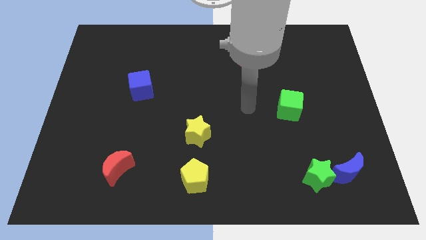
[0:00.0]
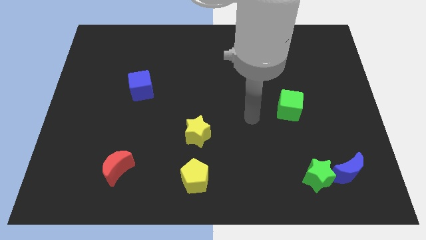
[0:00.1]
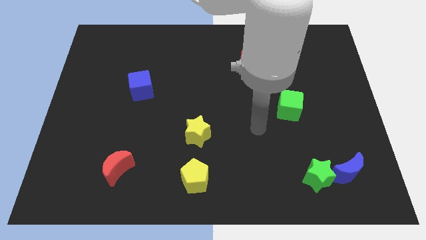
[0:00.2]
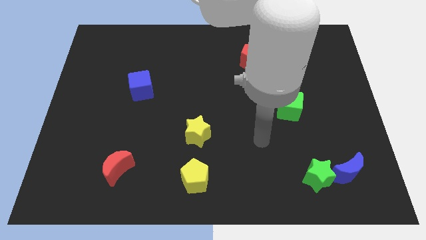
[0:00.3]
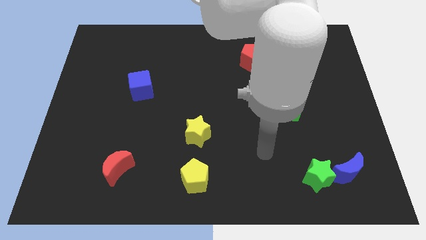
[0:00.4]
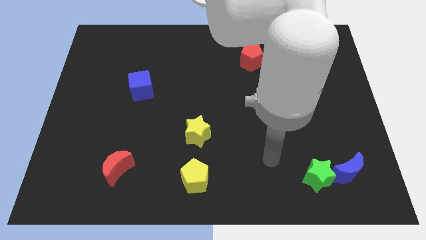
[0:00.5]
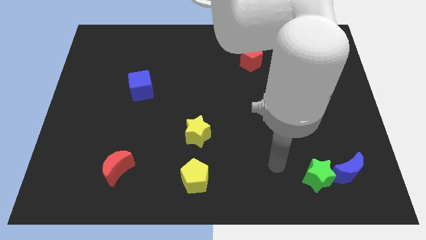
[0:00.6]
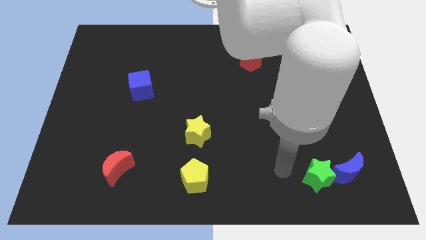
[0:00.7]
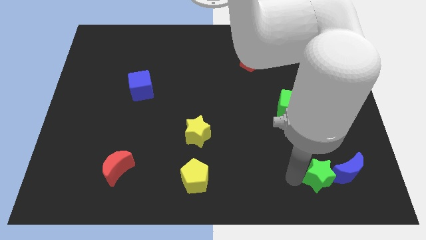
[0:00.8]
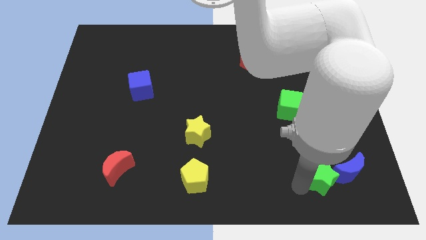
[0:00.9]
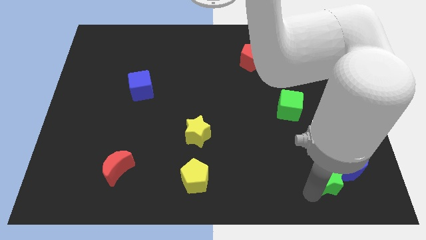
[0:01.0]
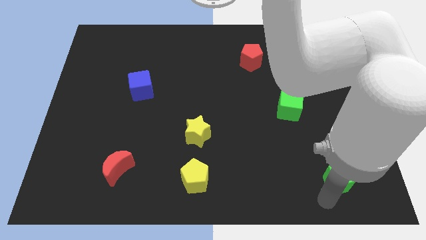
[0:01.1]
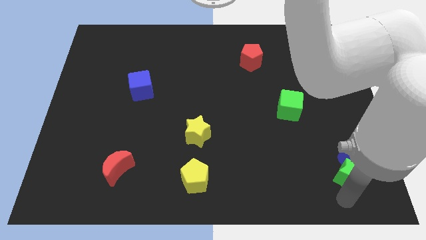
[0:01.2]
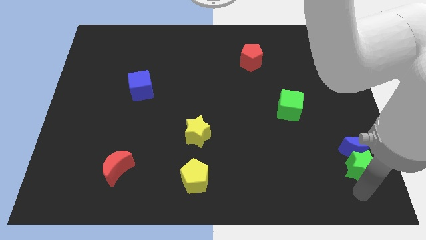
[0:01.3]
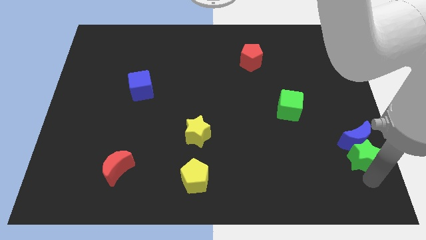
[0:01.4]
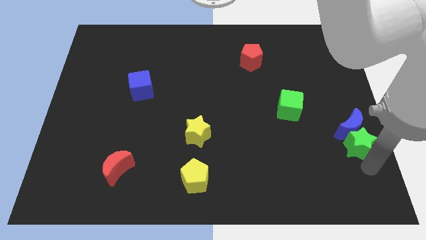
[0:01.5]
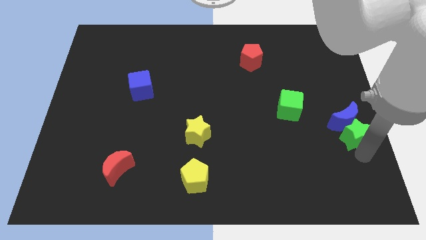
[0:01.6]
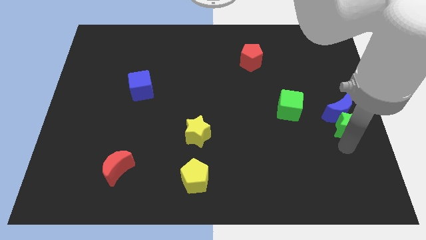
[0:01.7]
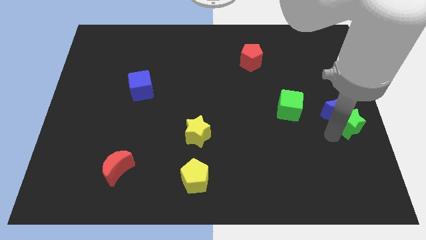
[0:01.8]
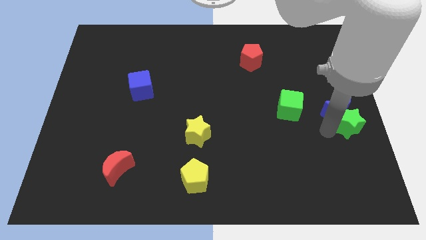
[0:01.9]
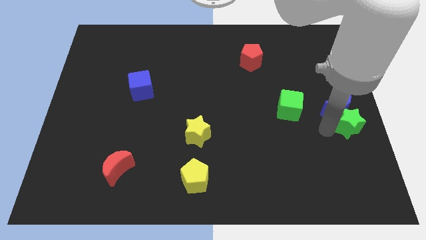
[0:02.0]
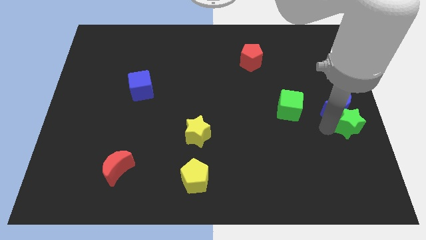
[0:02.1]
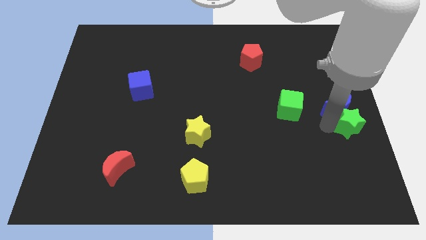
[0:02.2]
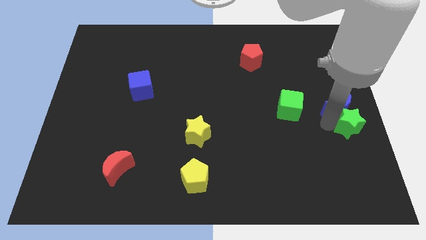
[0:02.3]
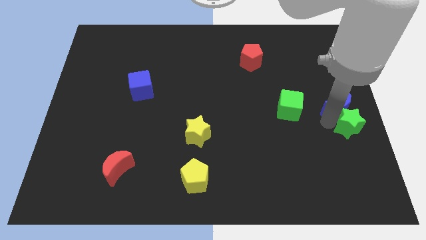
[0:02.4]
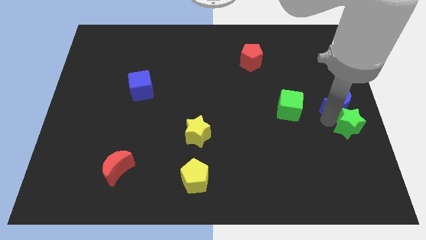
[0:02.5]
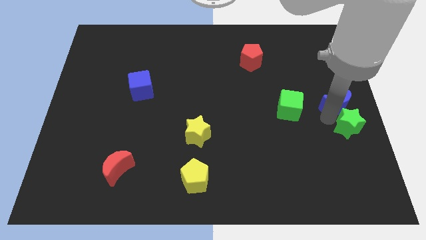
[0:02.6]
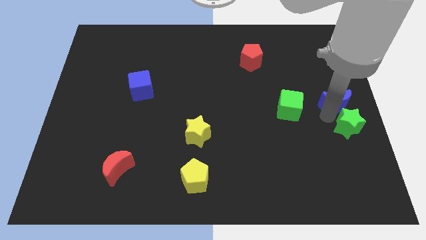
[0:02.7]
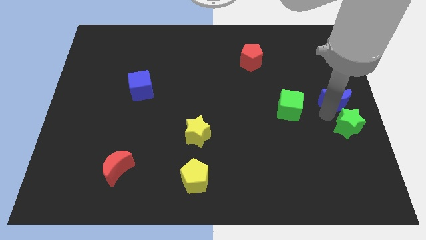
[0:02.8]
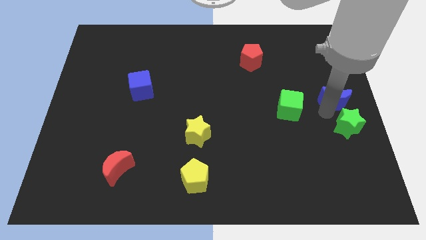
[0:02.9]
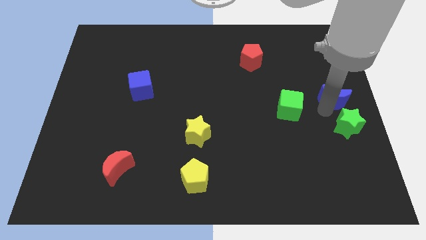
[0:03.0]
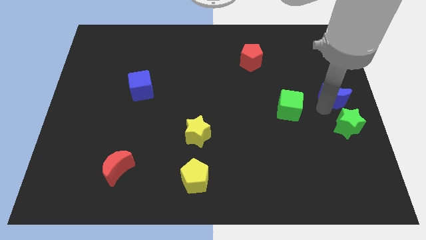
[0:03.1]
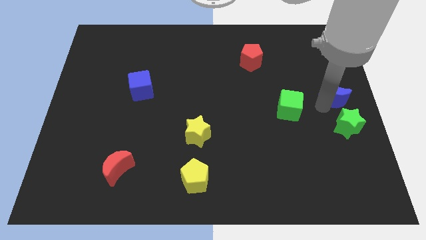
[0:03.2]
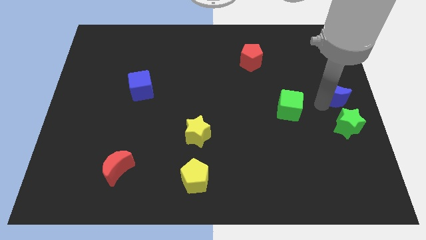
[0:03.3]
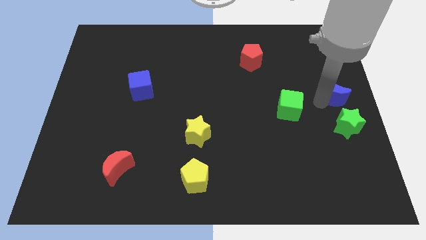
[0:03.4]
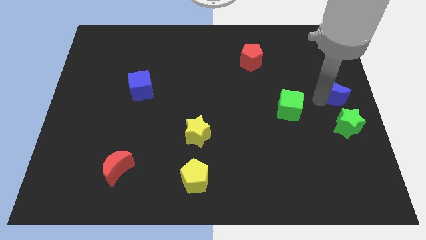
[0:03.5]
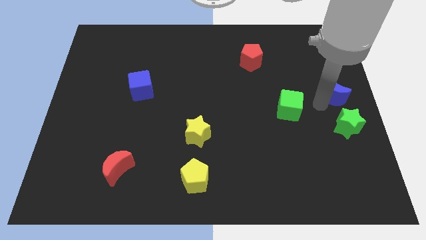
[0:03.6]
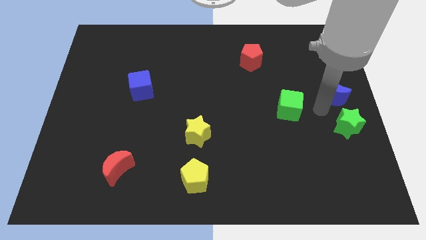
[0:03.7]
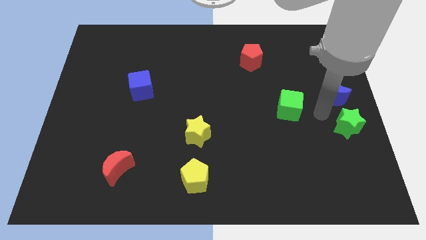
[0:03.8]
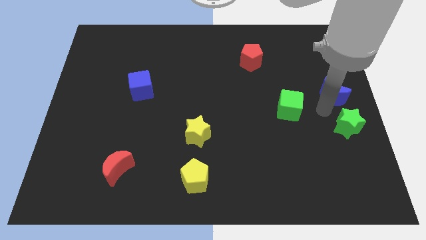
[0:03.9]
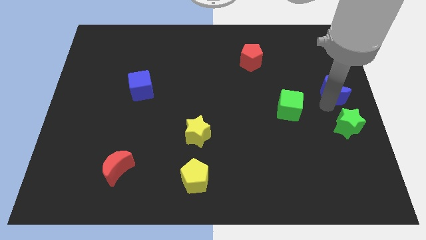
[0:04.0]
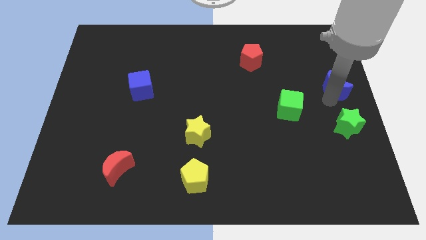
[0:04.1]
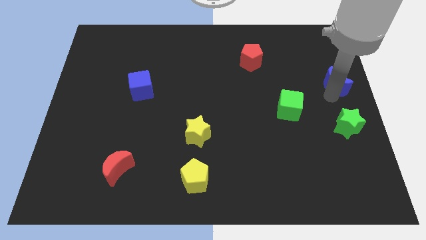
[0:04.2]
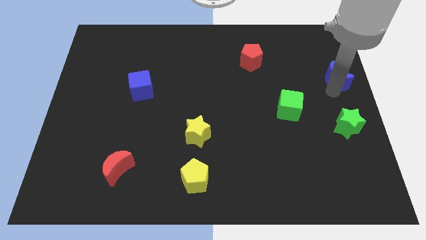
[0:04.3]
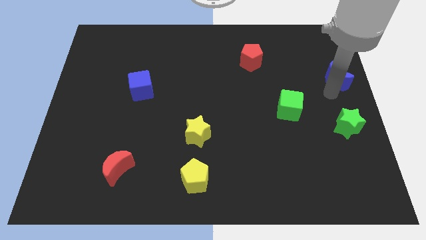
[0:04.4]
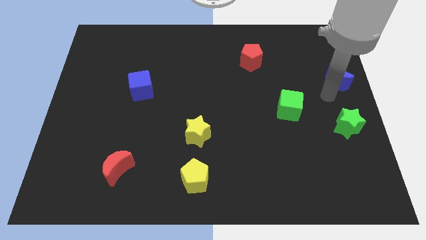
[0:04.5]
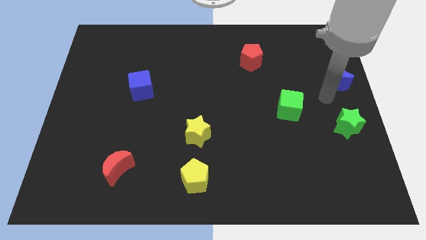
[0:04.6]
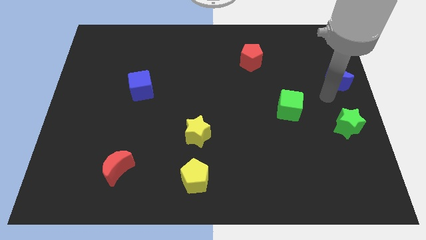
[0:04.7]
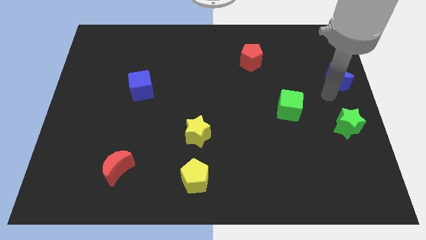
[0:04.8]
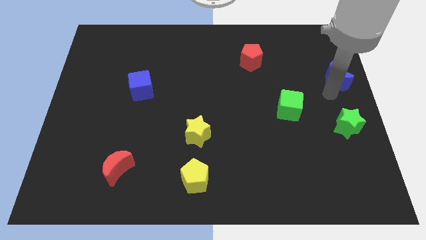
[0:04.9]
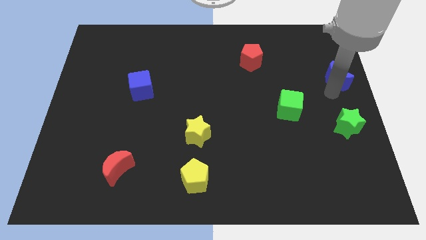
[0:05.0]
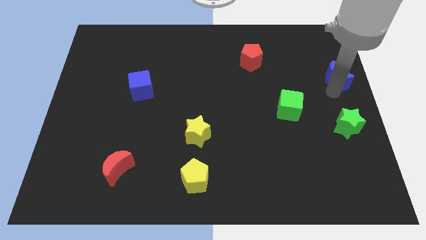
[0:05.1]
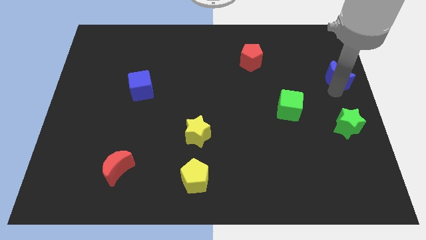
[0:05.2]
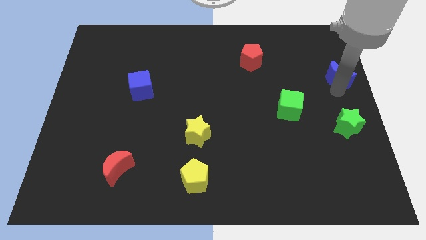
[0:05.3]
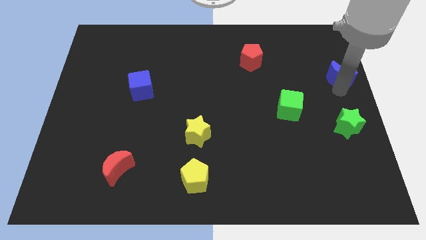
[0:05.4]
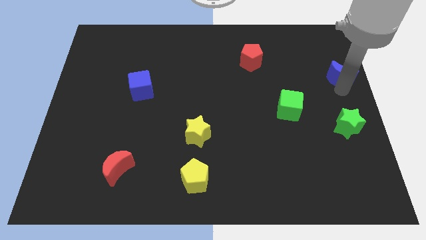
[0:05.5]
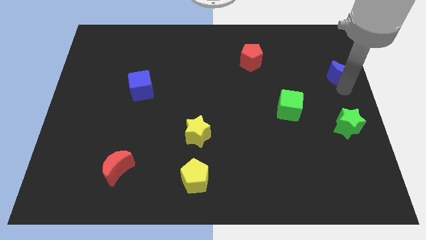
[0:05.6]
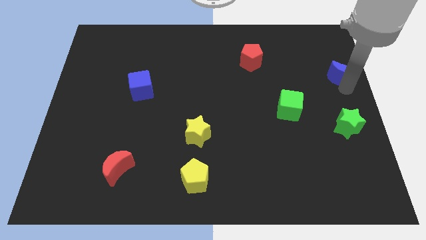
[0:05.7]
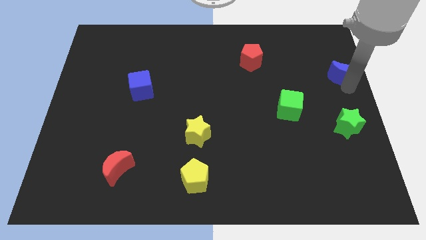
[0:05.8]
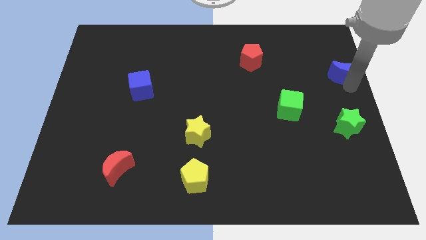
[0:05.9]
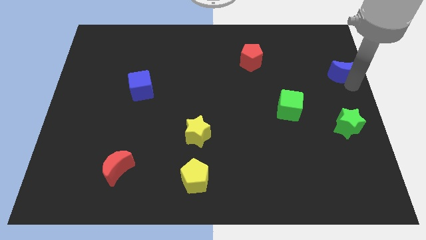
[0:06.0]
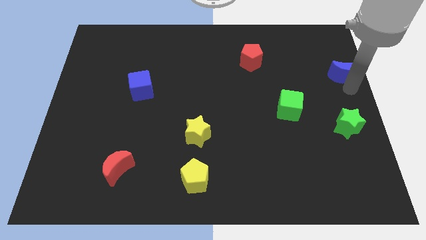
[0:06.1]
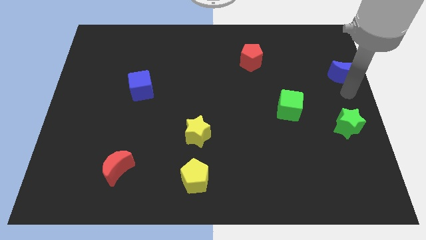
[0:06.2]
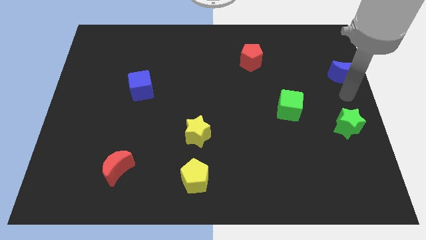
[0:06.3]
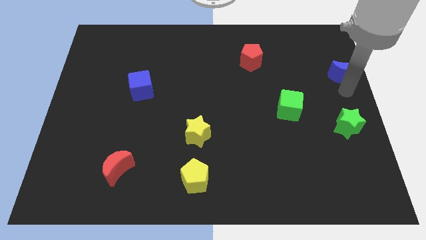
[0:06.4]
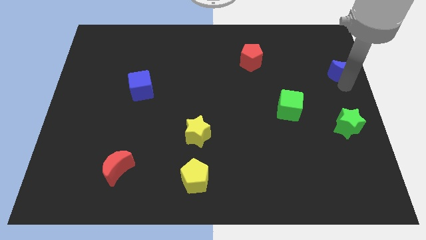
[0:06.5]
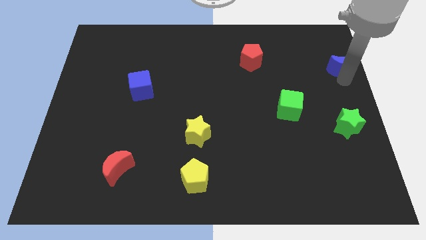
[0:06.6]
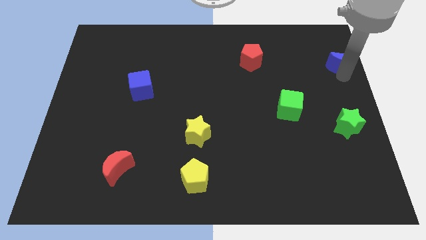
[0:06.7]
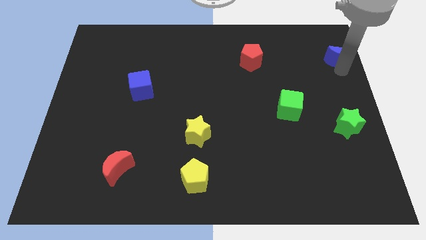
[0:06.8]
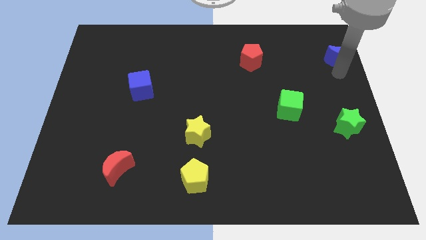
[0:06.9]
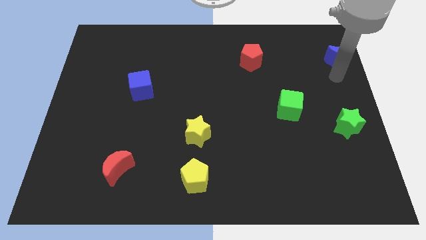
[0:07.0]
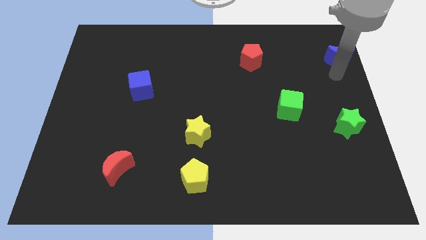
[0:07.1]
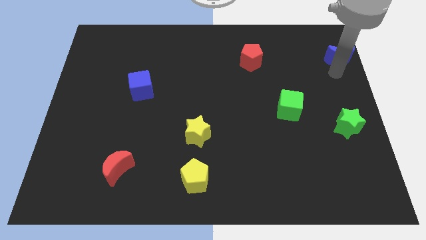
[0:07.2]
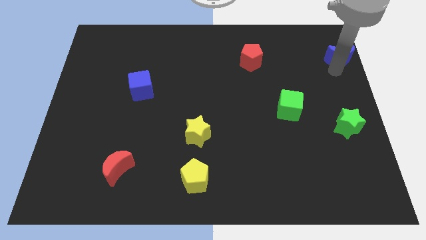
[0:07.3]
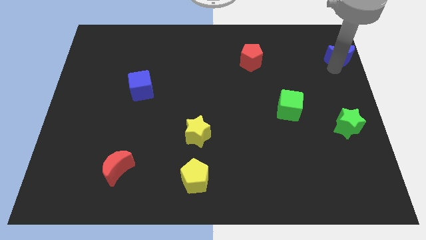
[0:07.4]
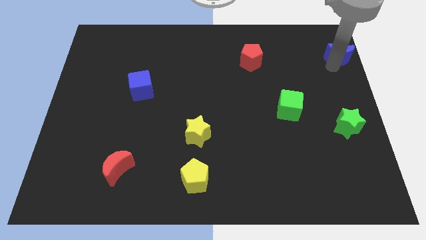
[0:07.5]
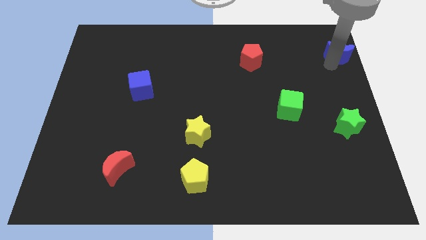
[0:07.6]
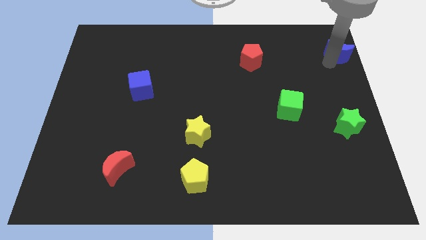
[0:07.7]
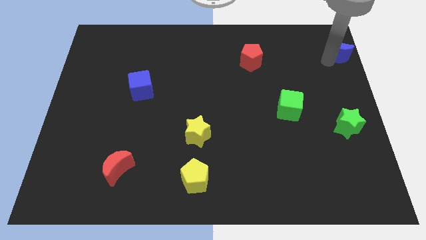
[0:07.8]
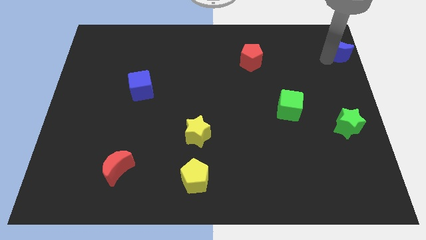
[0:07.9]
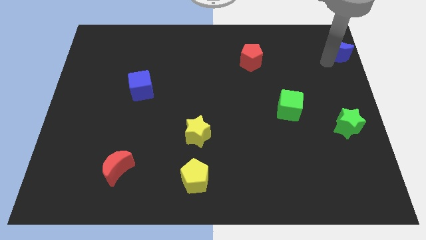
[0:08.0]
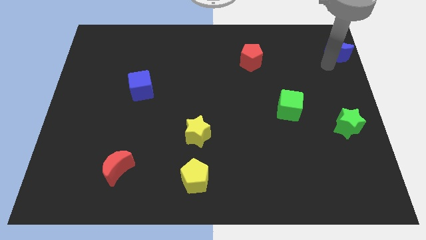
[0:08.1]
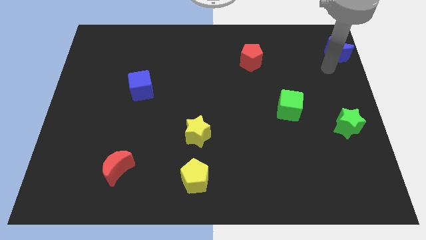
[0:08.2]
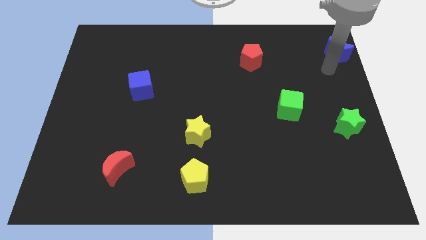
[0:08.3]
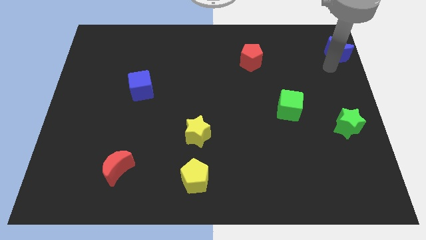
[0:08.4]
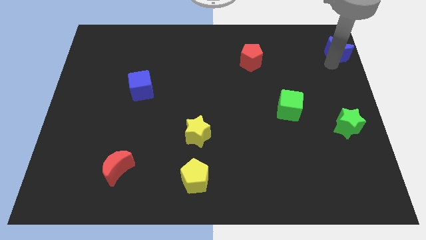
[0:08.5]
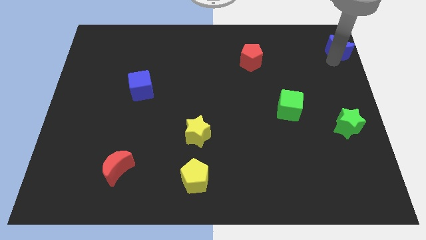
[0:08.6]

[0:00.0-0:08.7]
put the blue moon to the top right corner
